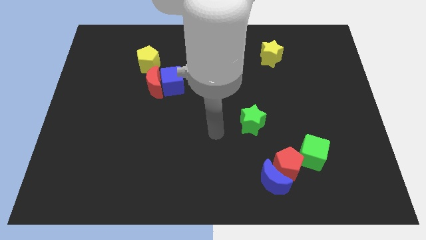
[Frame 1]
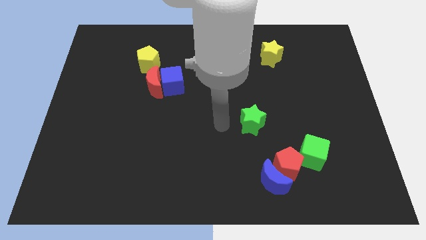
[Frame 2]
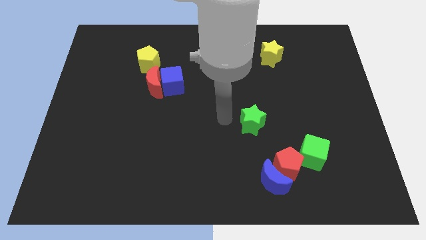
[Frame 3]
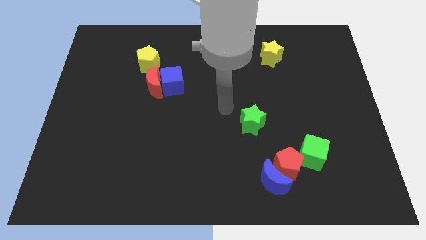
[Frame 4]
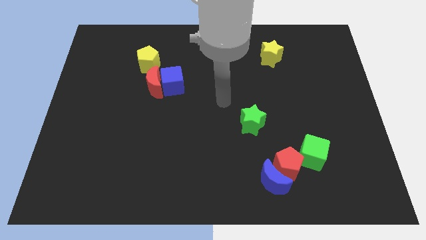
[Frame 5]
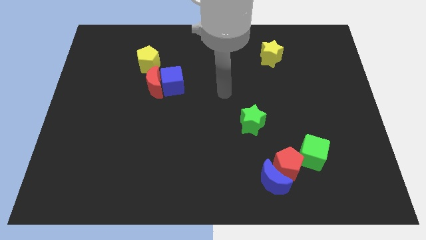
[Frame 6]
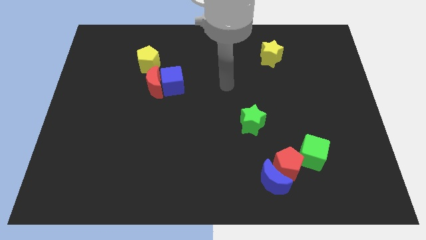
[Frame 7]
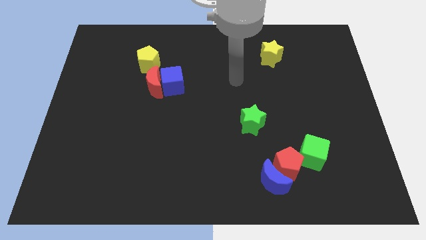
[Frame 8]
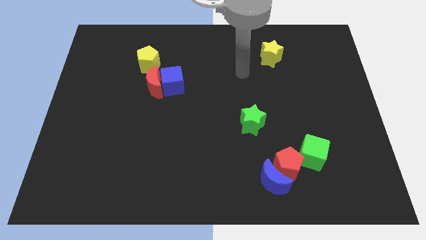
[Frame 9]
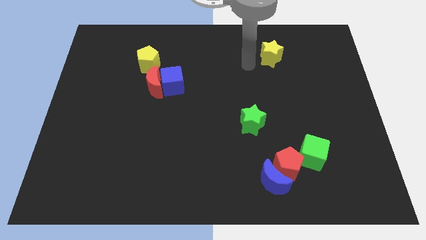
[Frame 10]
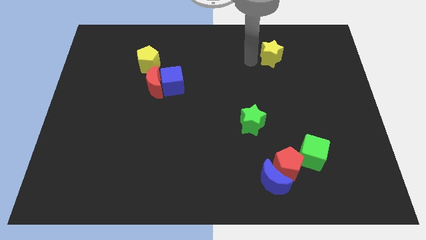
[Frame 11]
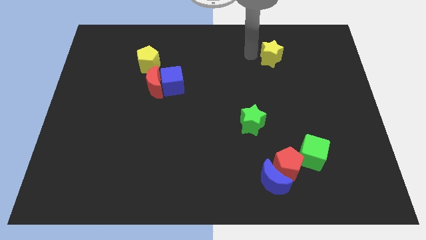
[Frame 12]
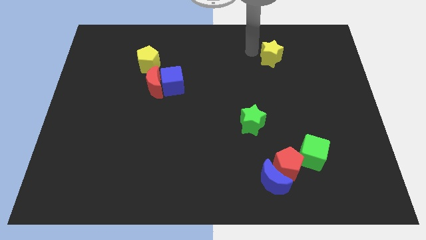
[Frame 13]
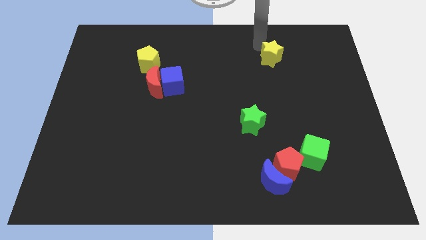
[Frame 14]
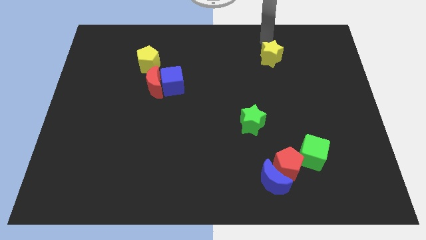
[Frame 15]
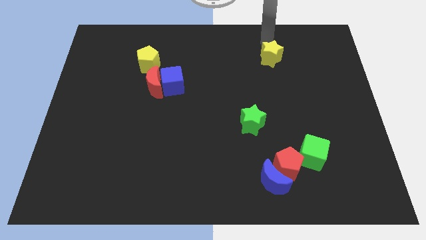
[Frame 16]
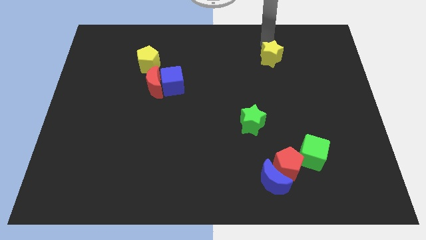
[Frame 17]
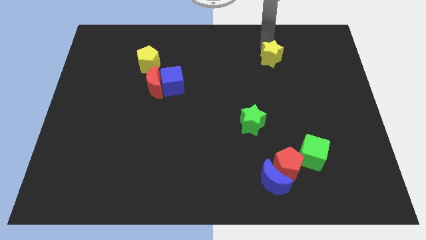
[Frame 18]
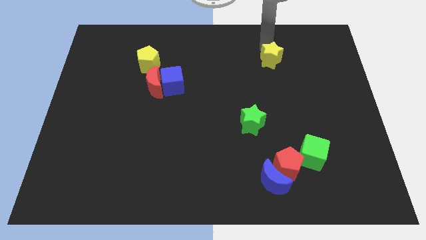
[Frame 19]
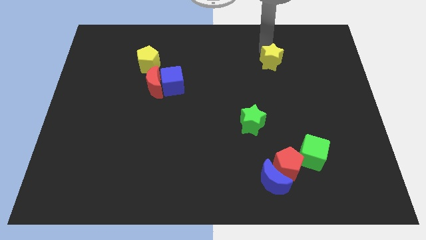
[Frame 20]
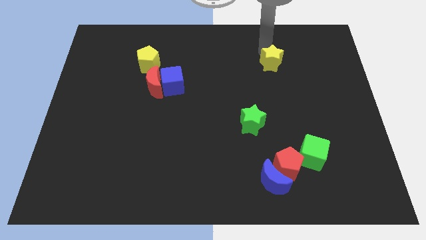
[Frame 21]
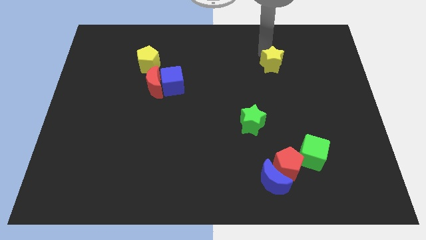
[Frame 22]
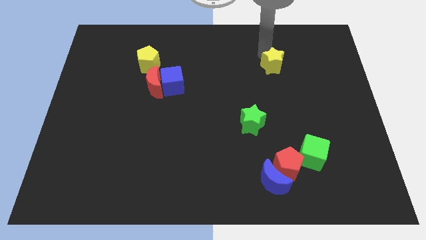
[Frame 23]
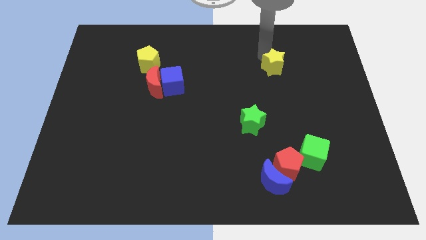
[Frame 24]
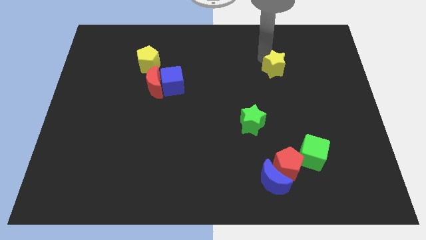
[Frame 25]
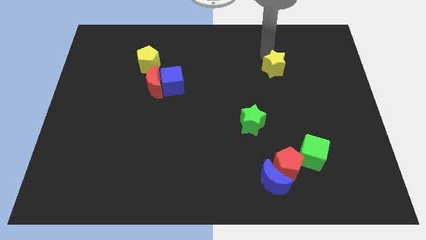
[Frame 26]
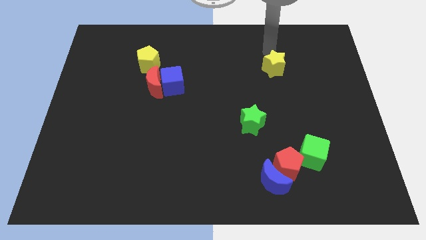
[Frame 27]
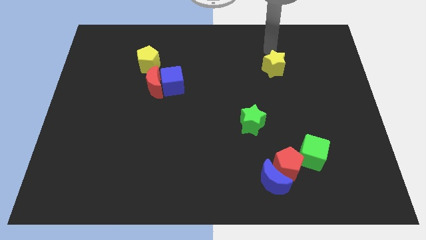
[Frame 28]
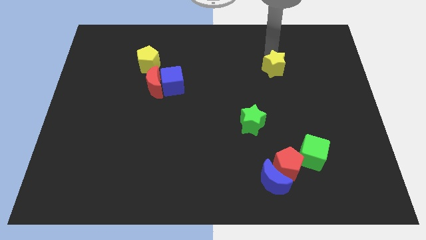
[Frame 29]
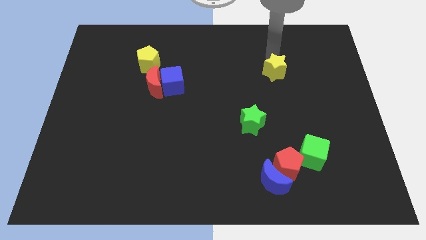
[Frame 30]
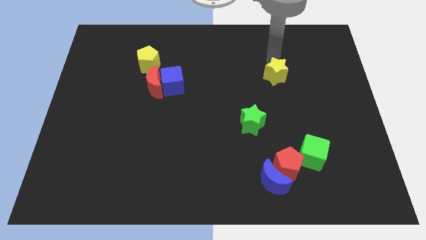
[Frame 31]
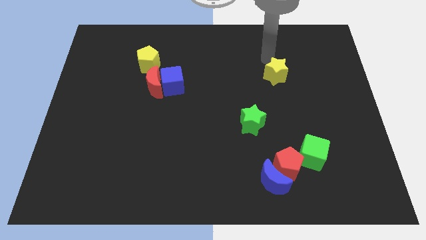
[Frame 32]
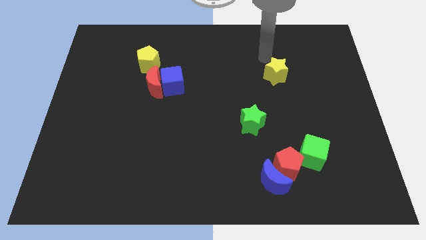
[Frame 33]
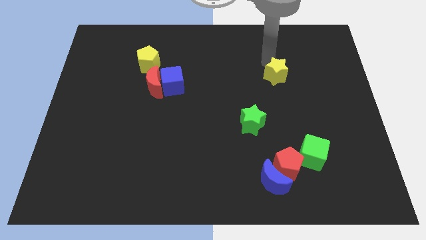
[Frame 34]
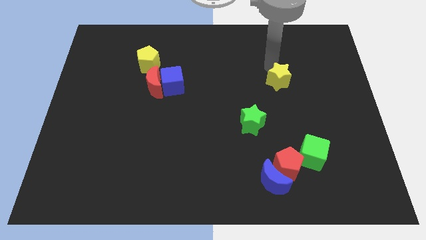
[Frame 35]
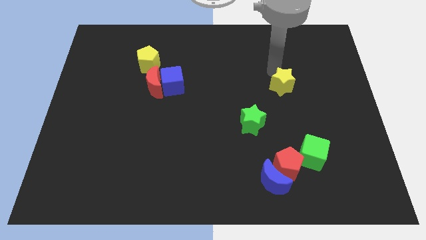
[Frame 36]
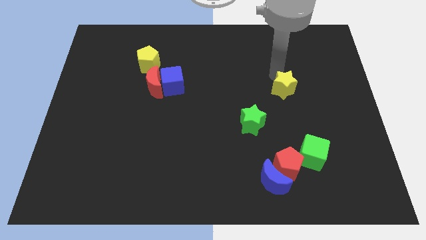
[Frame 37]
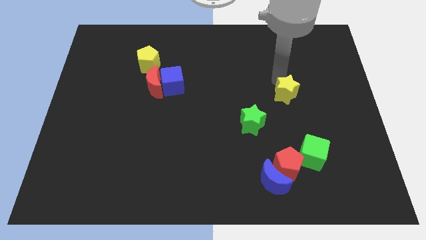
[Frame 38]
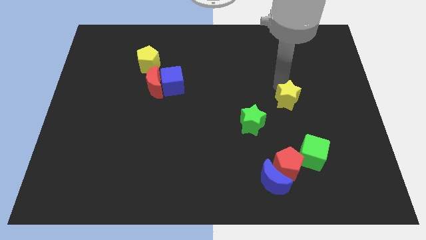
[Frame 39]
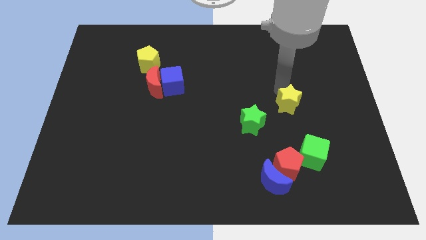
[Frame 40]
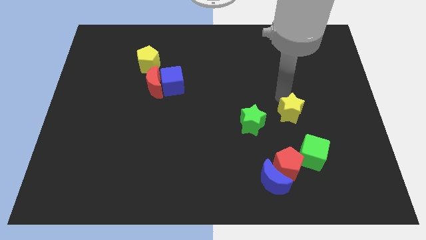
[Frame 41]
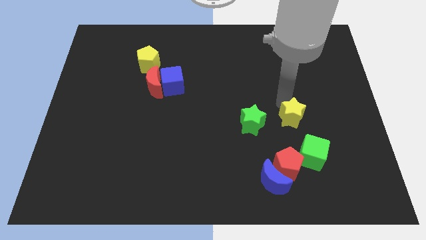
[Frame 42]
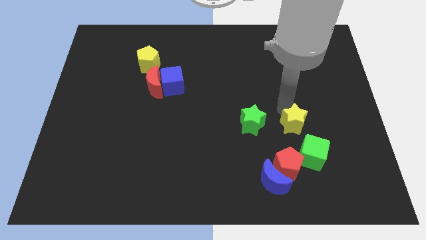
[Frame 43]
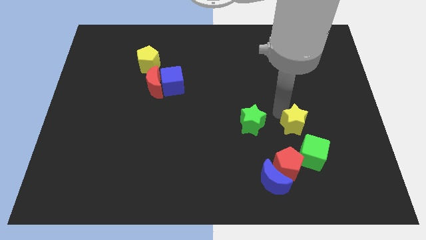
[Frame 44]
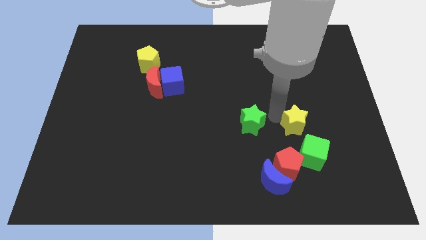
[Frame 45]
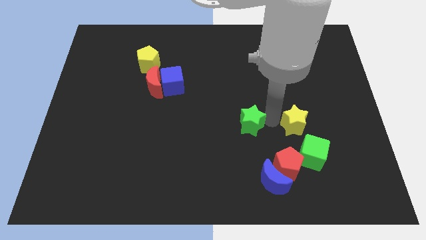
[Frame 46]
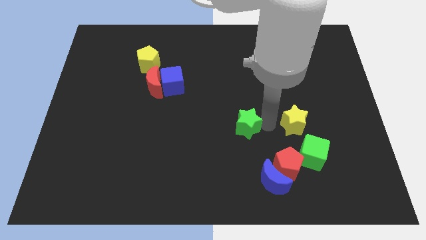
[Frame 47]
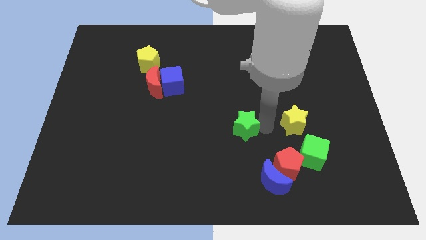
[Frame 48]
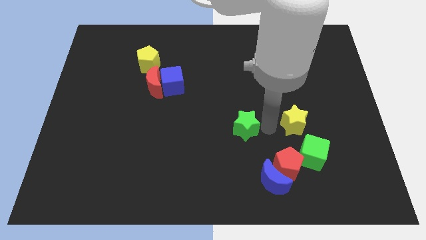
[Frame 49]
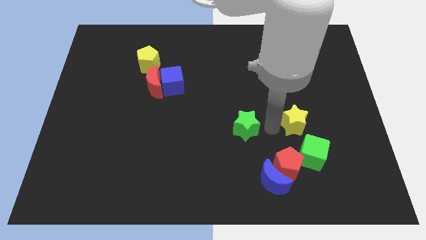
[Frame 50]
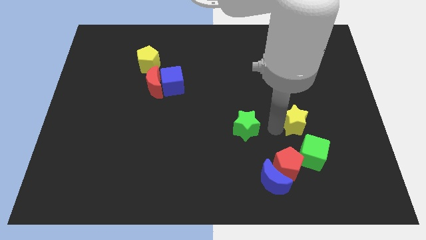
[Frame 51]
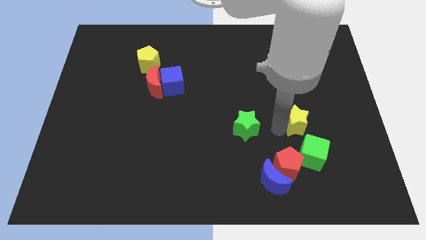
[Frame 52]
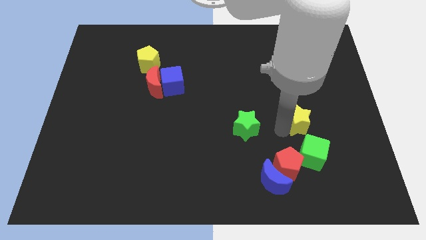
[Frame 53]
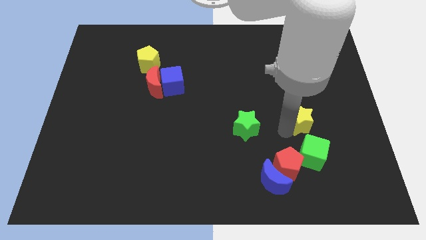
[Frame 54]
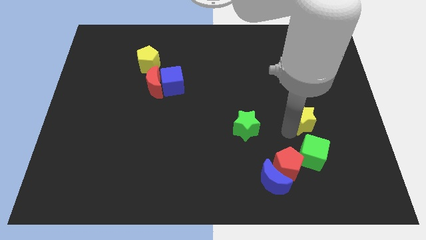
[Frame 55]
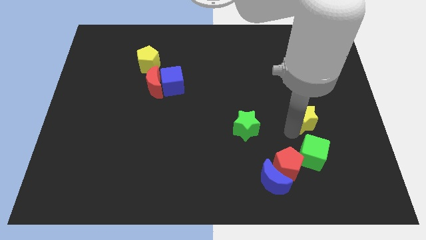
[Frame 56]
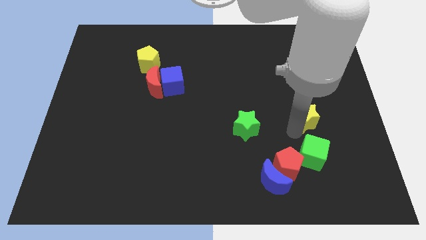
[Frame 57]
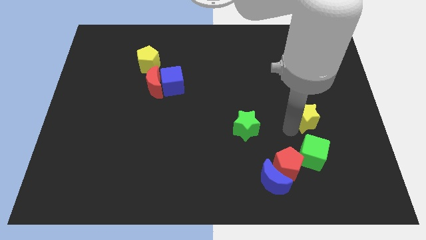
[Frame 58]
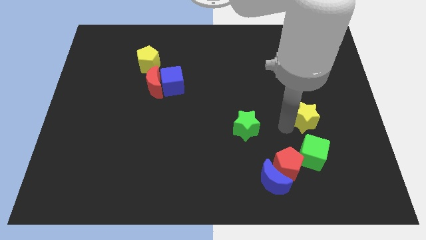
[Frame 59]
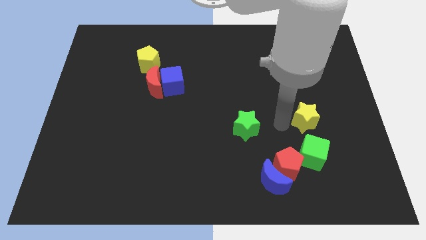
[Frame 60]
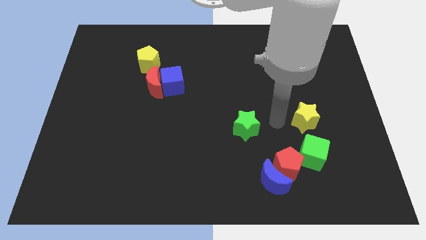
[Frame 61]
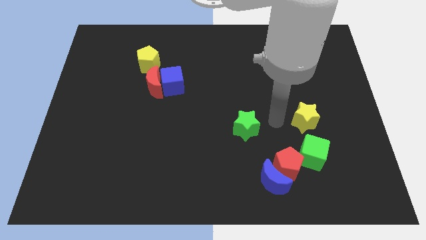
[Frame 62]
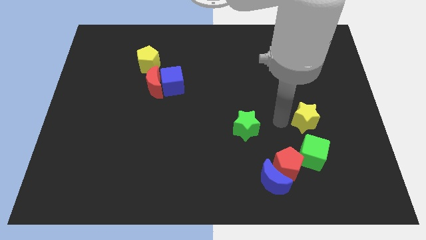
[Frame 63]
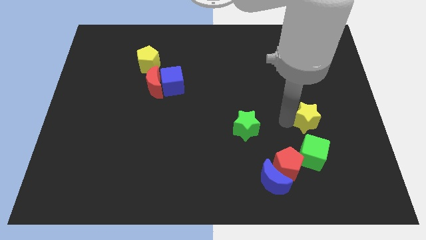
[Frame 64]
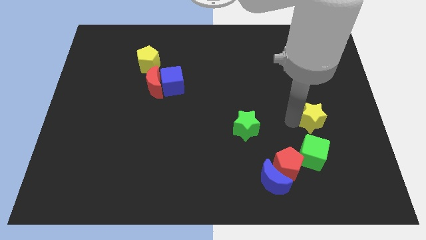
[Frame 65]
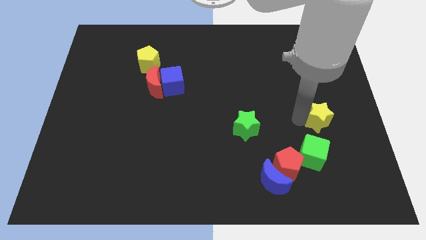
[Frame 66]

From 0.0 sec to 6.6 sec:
push the yellow star diagonally up and to the right of the green cube

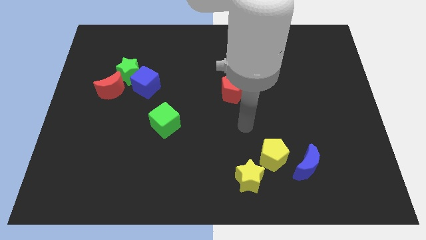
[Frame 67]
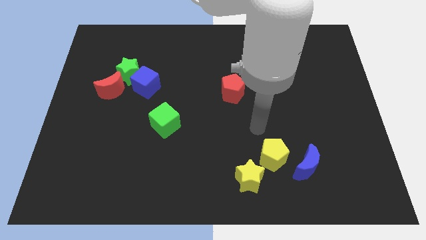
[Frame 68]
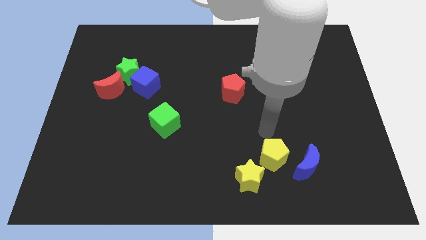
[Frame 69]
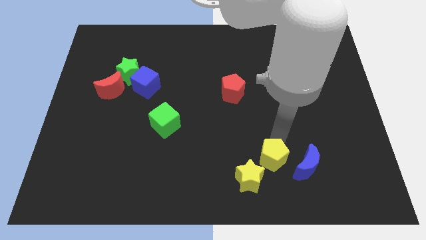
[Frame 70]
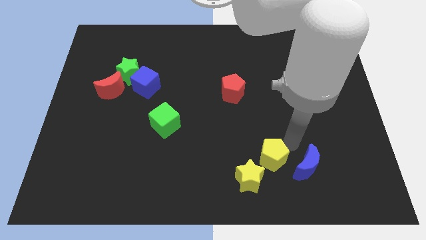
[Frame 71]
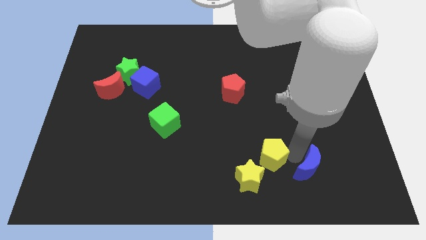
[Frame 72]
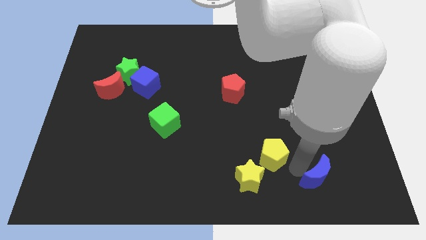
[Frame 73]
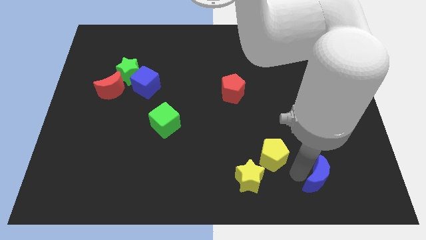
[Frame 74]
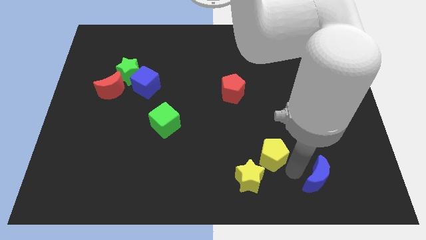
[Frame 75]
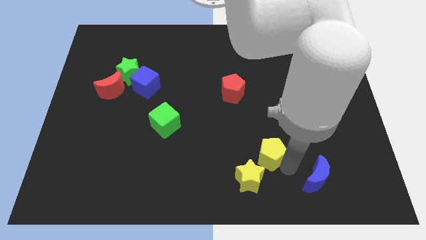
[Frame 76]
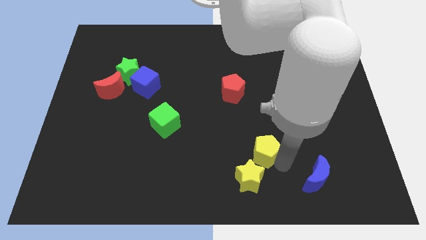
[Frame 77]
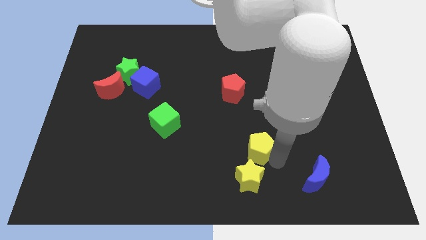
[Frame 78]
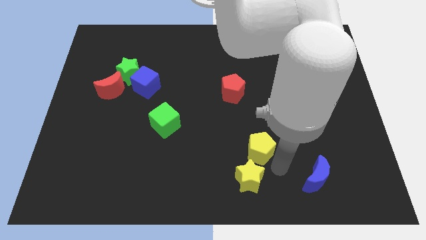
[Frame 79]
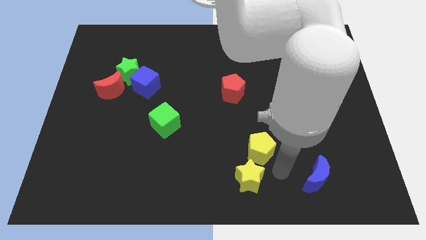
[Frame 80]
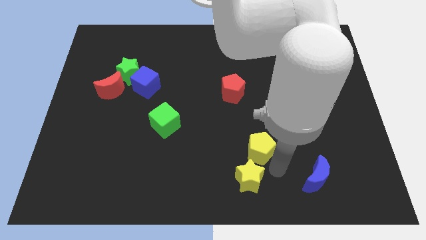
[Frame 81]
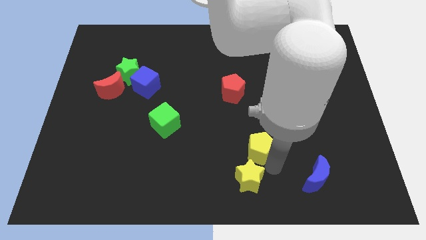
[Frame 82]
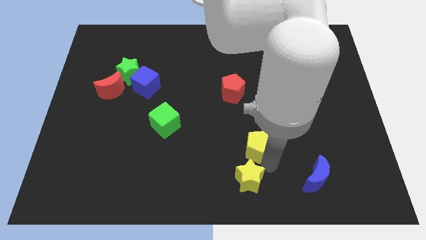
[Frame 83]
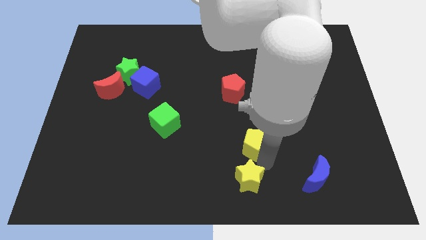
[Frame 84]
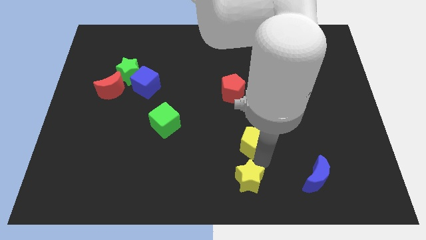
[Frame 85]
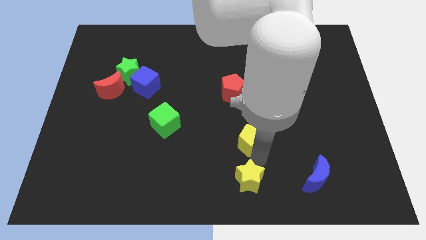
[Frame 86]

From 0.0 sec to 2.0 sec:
push the yellow pentagon to the bottom side of the red pentagon
